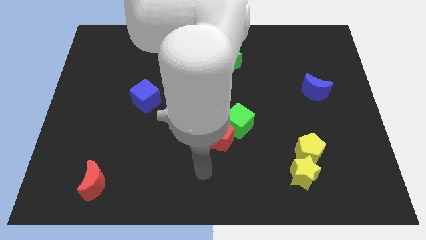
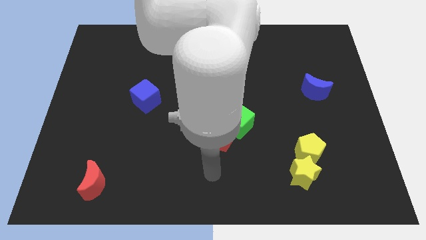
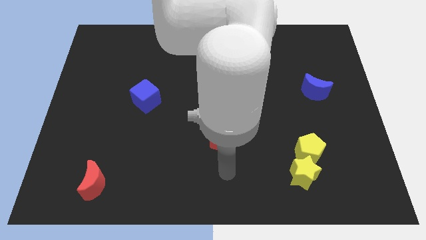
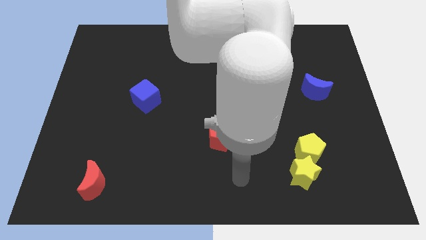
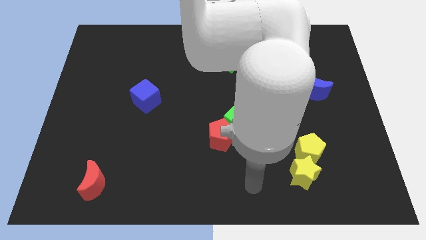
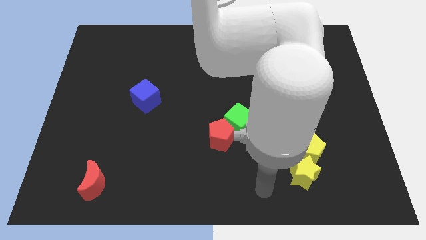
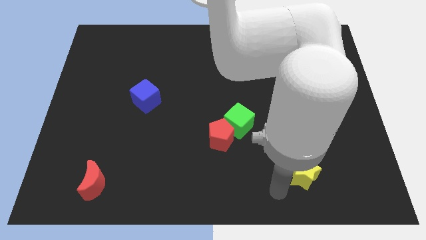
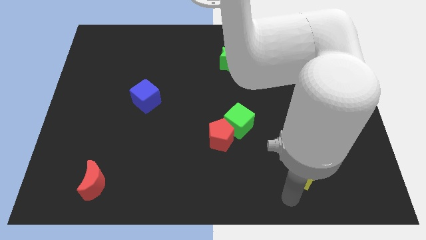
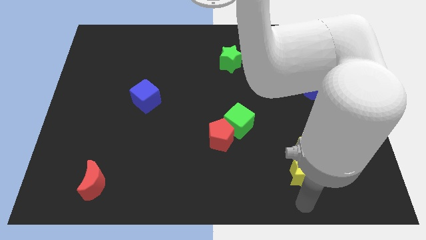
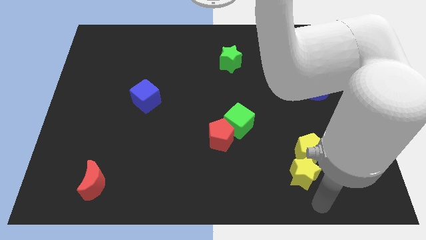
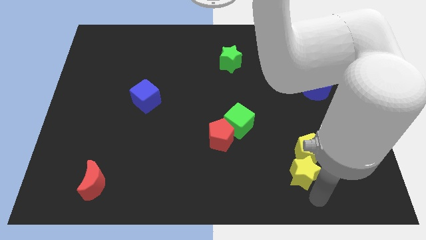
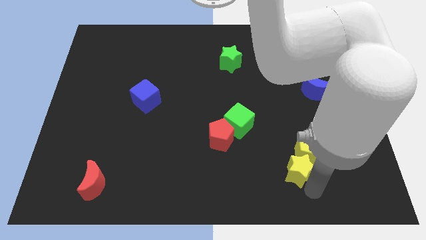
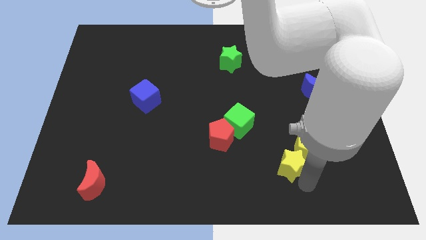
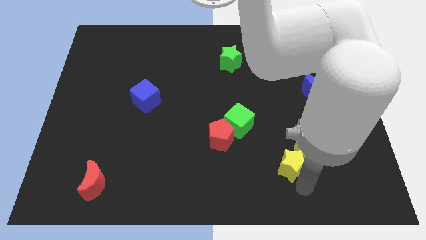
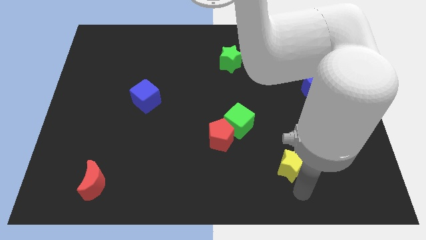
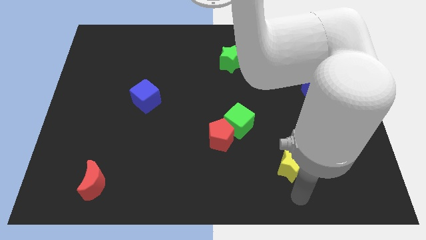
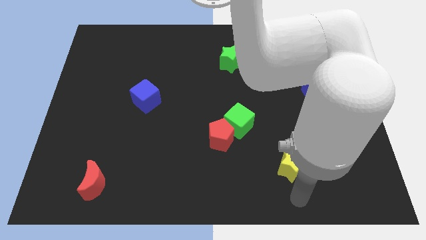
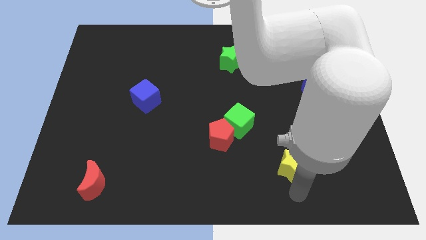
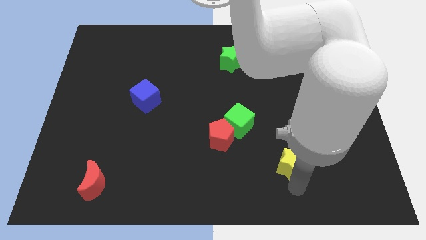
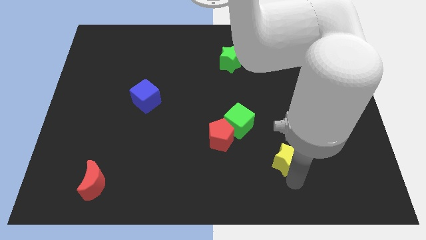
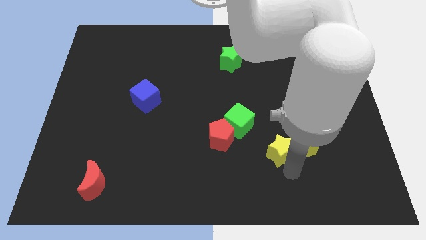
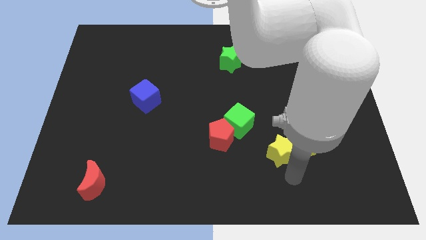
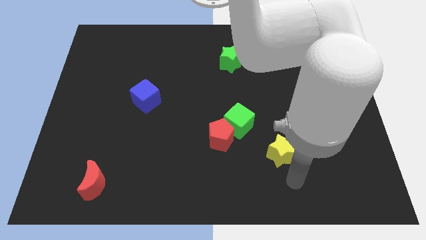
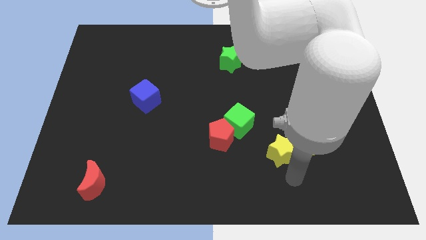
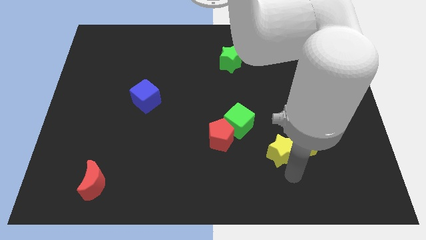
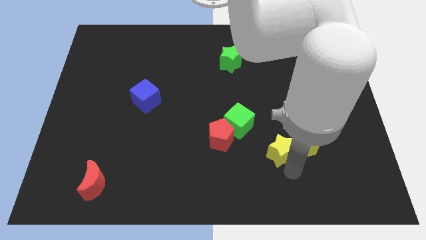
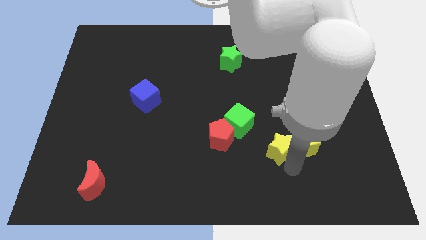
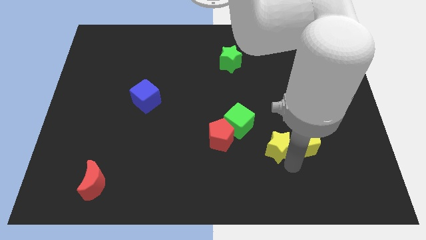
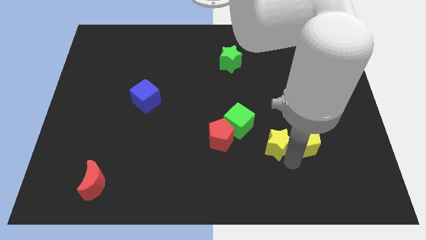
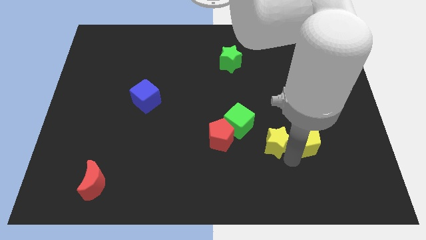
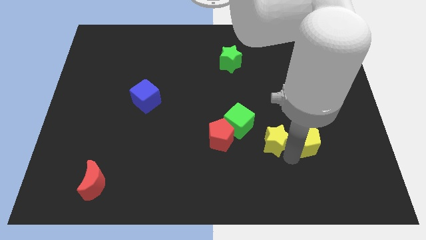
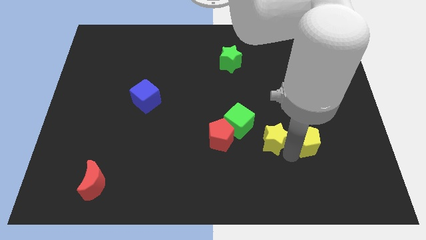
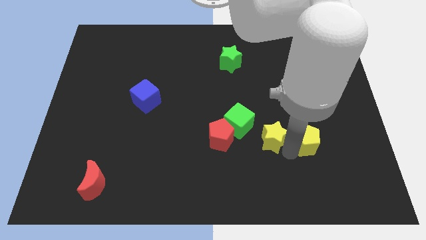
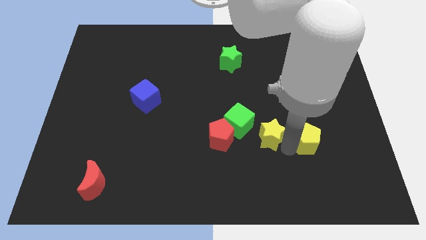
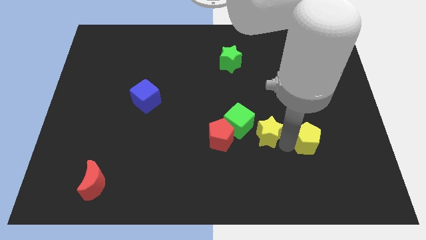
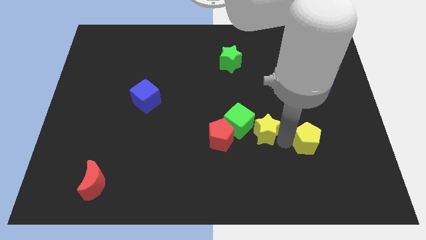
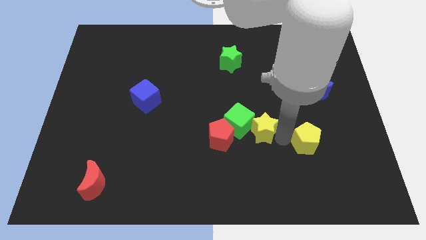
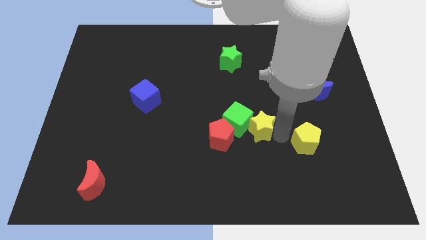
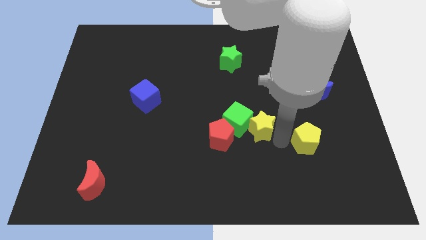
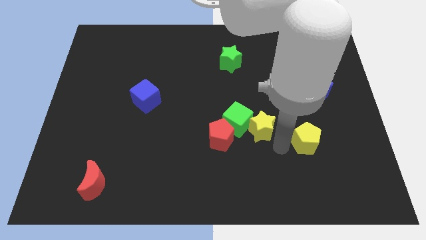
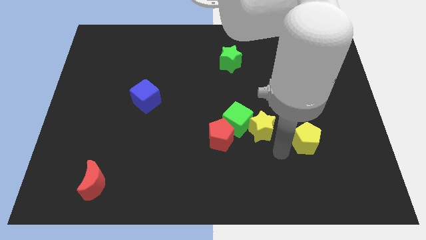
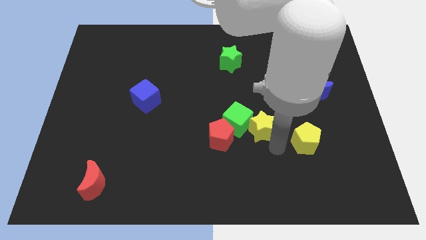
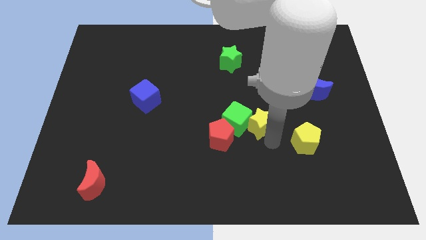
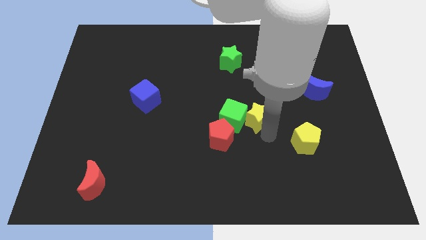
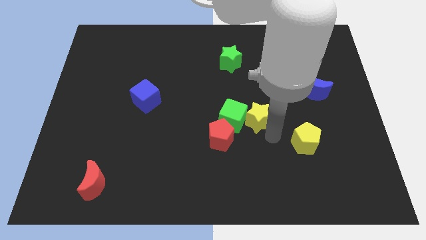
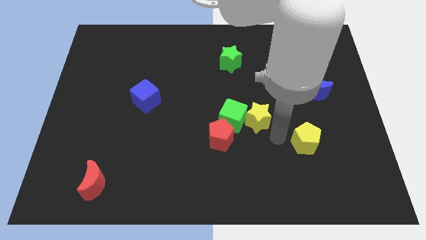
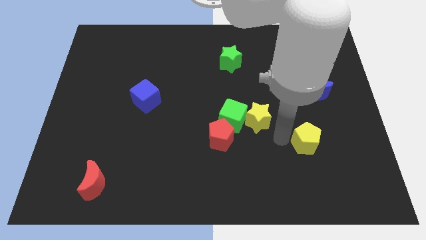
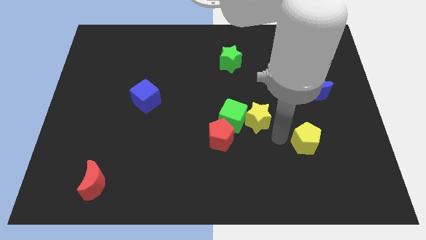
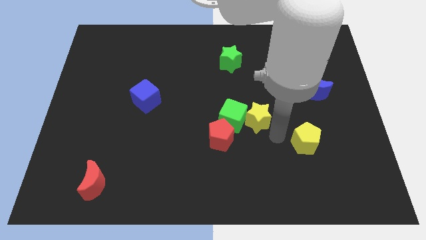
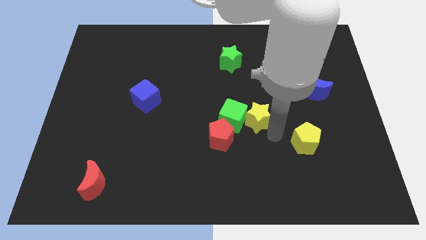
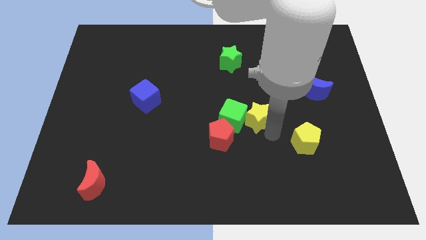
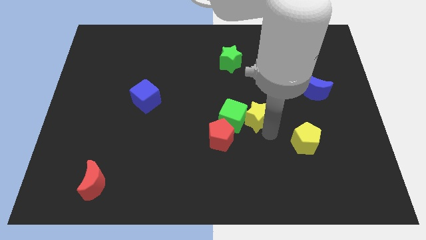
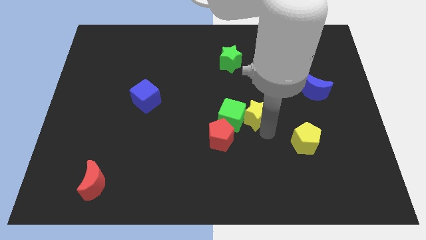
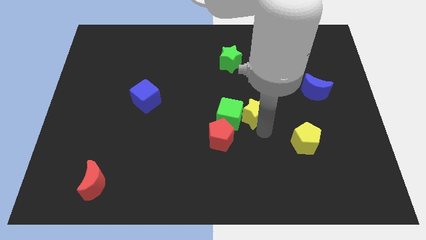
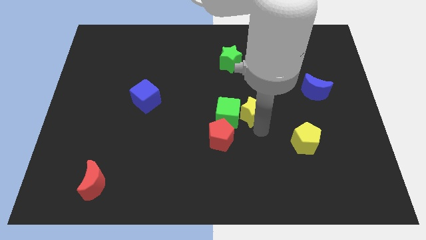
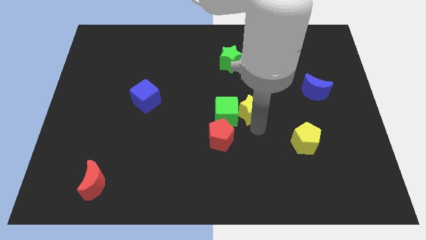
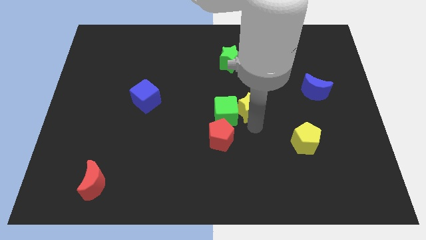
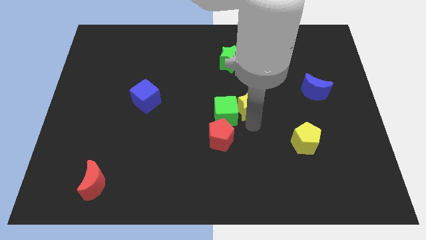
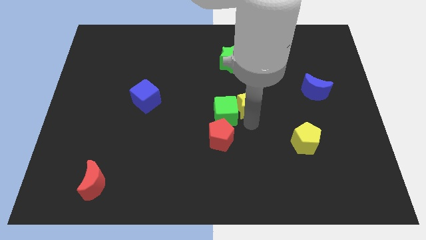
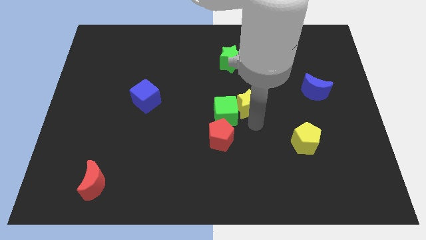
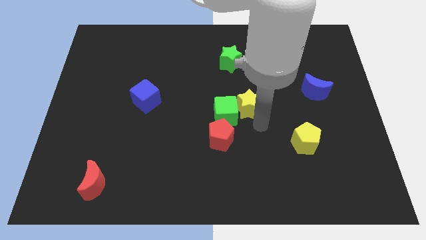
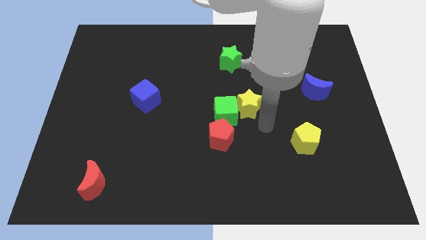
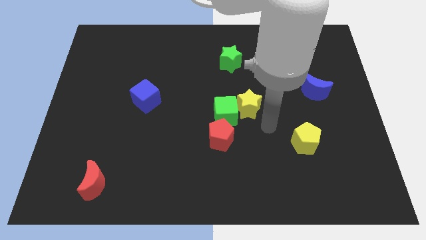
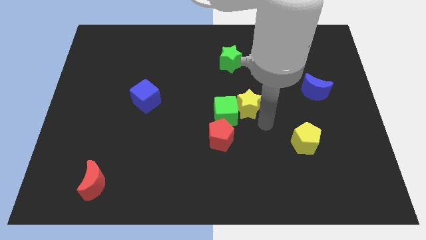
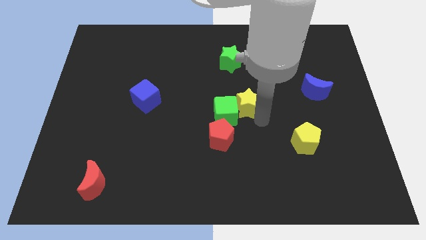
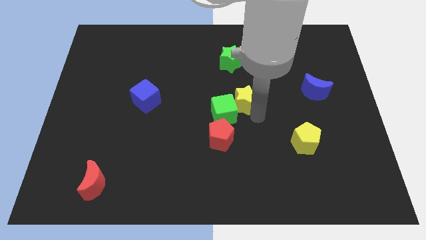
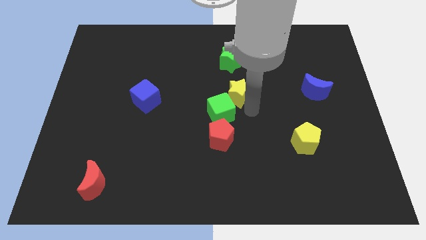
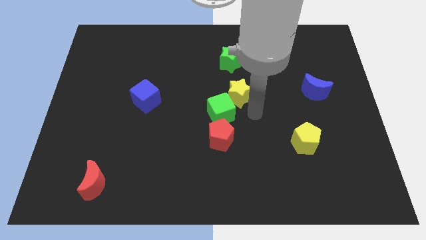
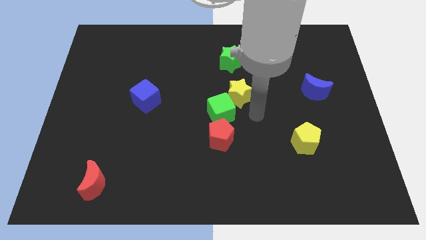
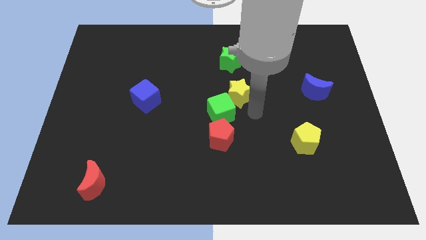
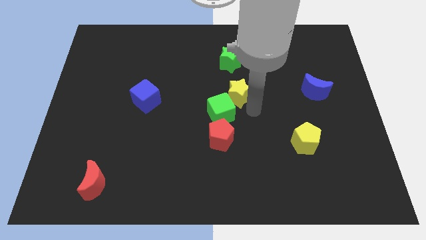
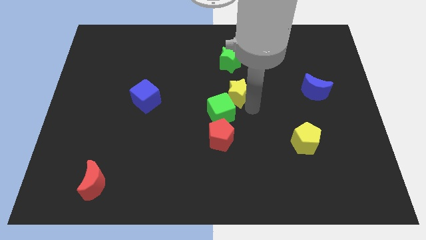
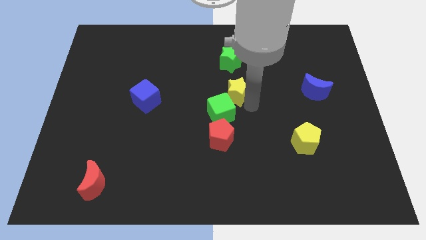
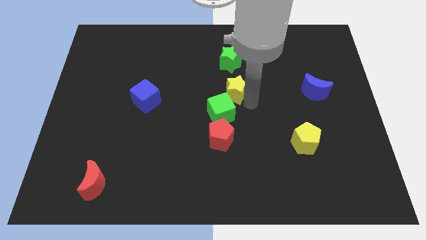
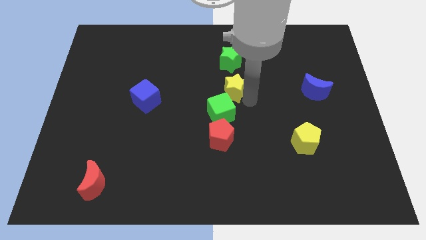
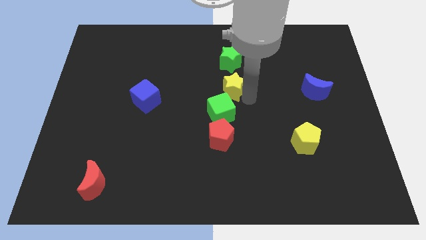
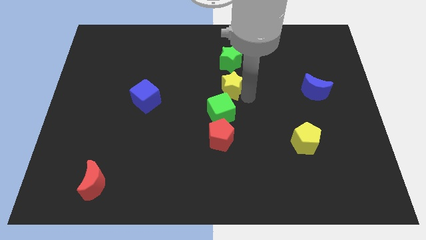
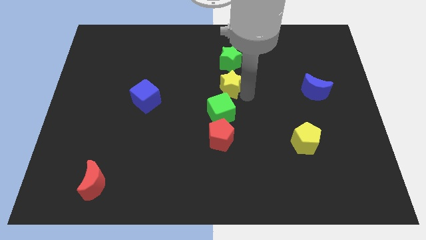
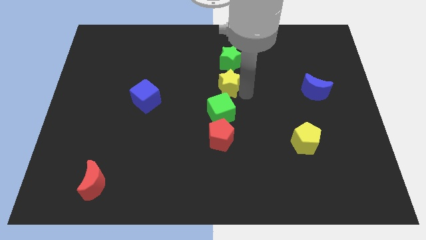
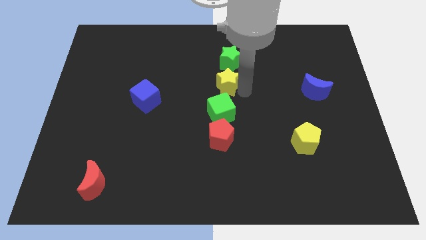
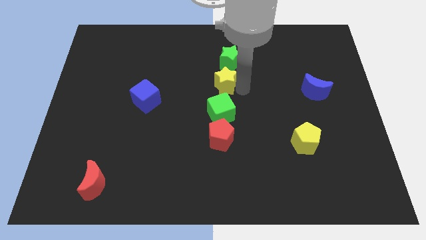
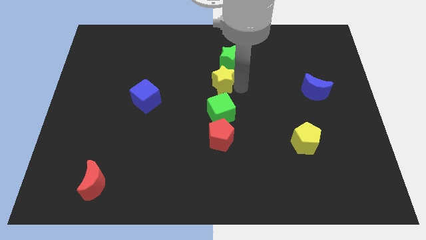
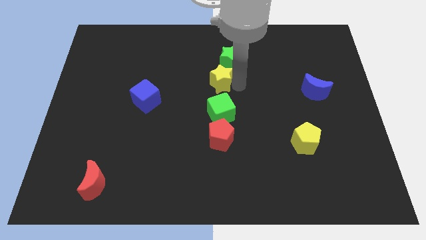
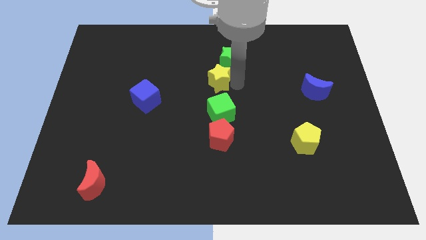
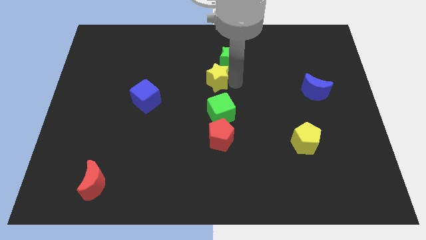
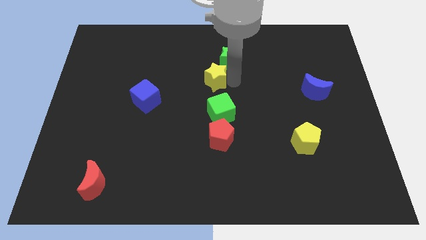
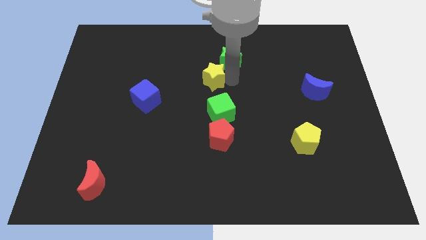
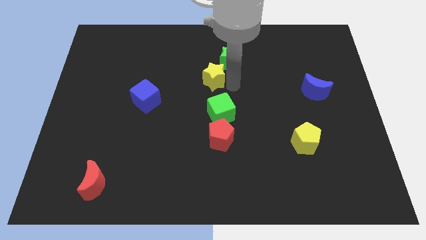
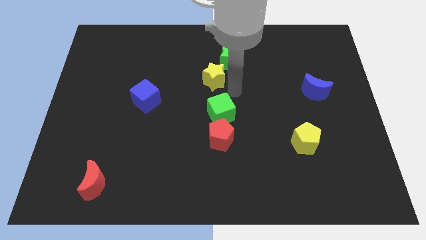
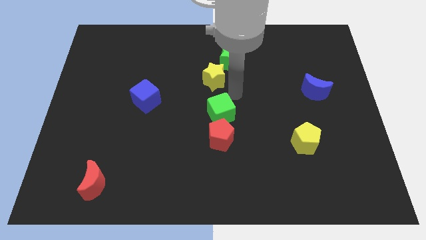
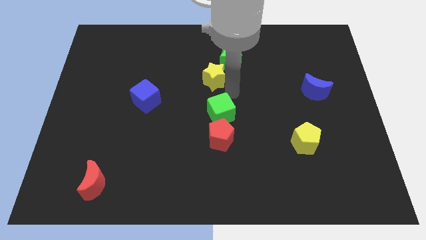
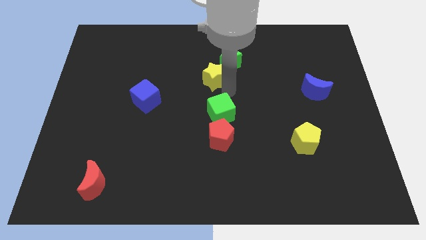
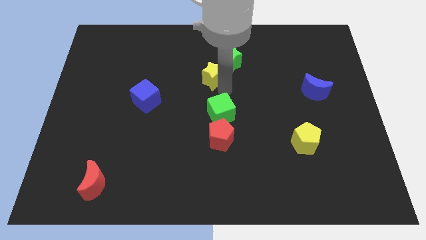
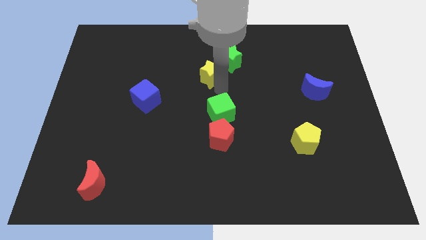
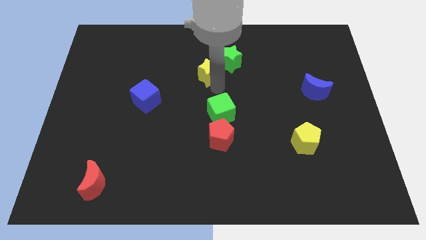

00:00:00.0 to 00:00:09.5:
put the yellow star to the left side of the green star
